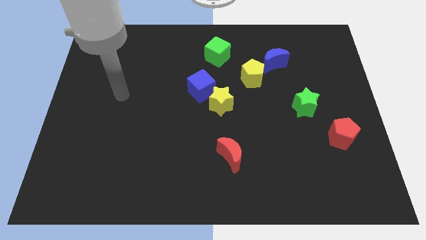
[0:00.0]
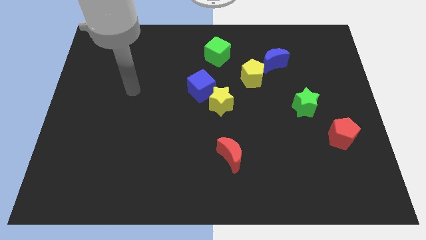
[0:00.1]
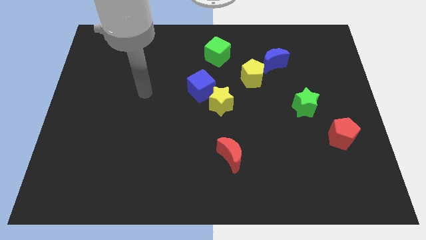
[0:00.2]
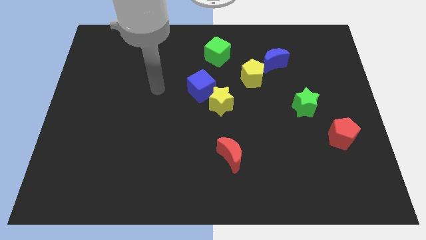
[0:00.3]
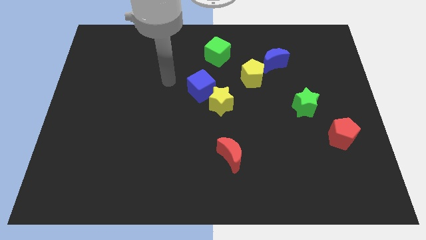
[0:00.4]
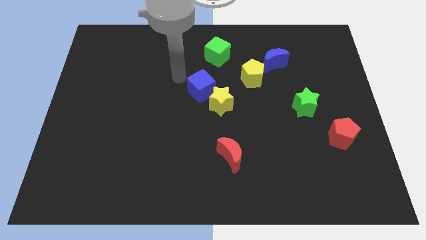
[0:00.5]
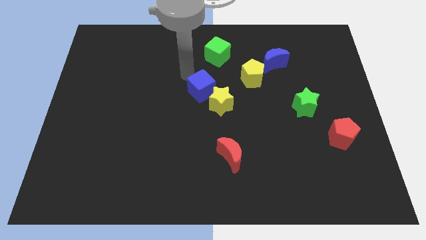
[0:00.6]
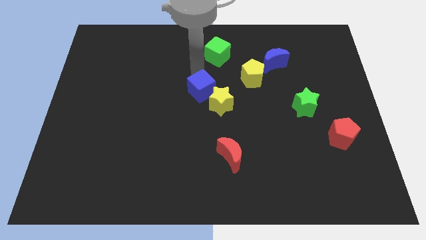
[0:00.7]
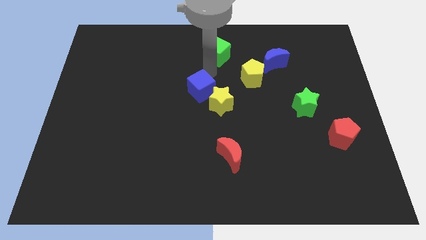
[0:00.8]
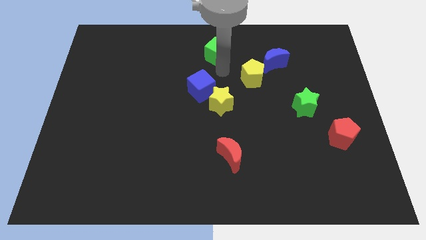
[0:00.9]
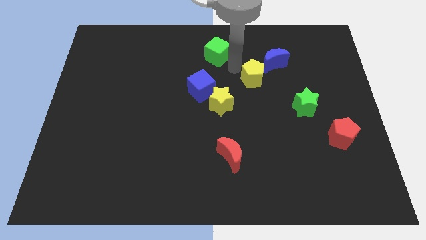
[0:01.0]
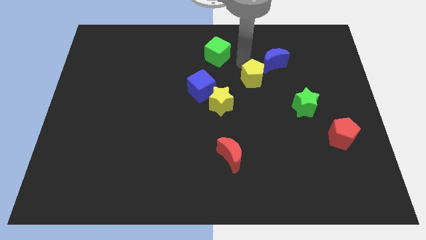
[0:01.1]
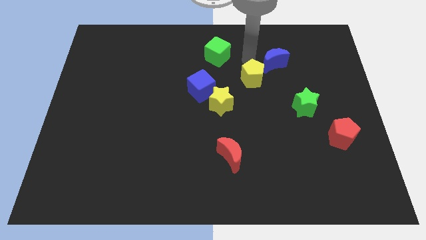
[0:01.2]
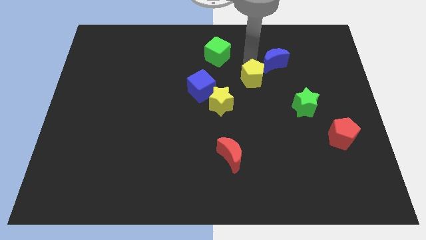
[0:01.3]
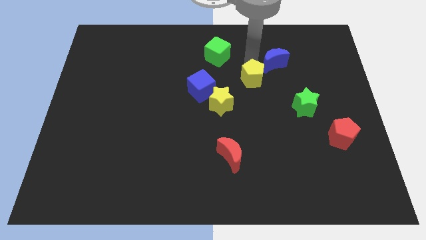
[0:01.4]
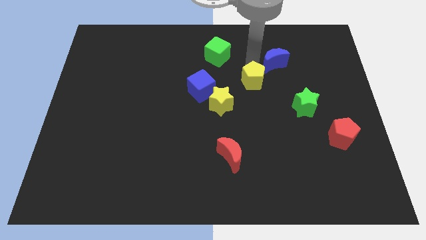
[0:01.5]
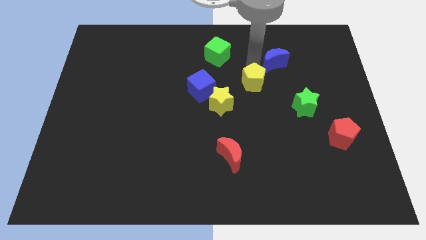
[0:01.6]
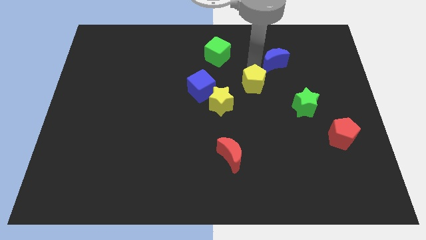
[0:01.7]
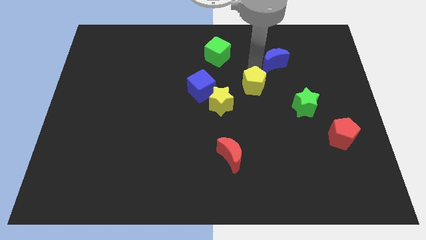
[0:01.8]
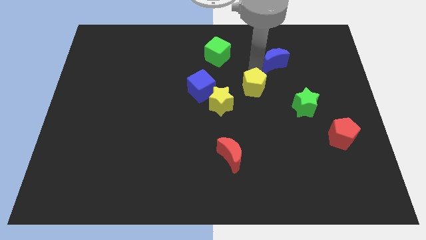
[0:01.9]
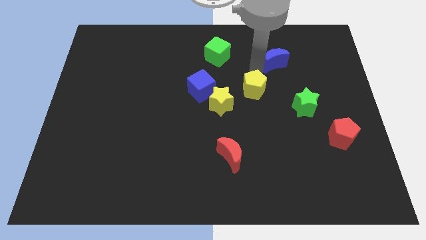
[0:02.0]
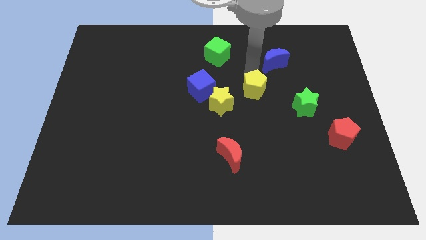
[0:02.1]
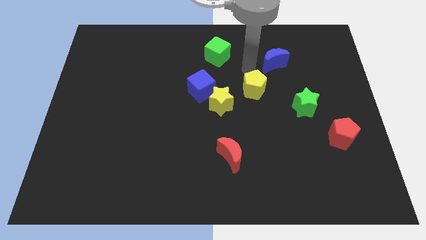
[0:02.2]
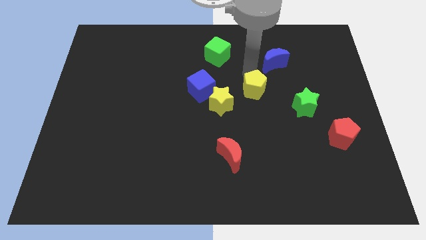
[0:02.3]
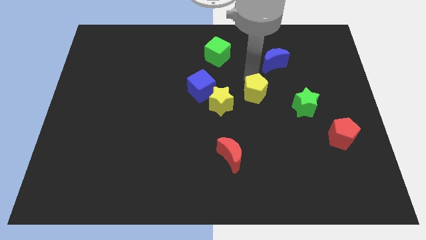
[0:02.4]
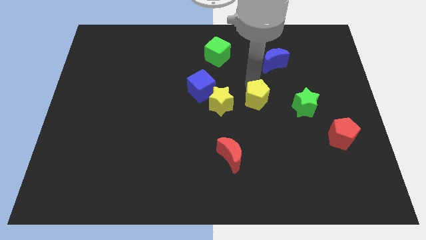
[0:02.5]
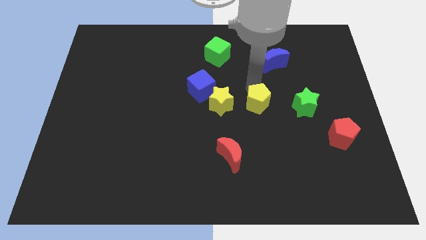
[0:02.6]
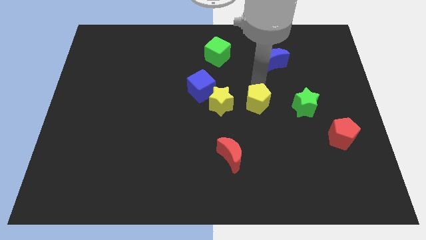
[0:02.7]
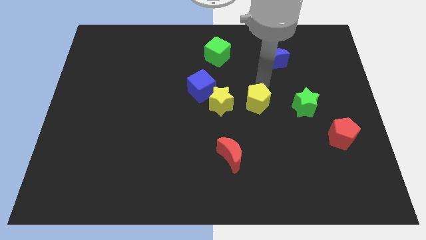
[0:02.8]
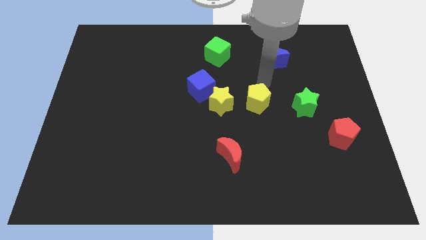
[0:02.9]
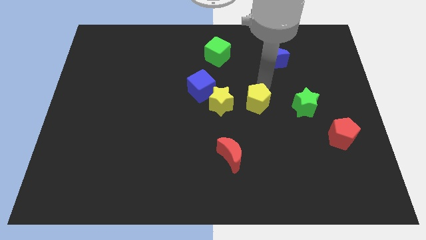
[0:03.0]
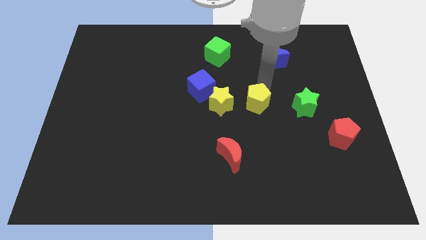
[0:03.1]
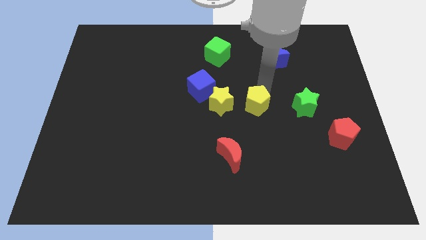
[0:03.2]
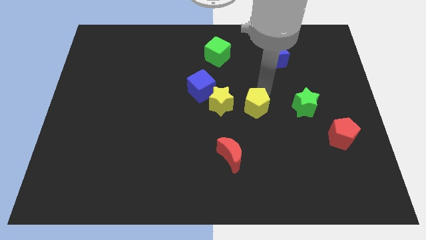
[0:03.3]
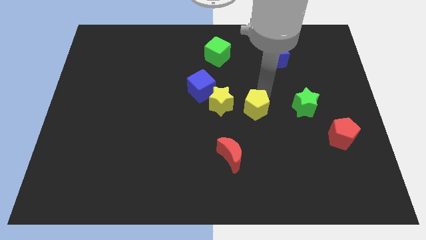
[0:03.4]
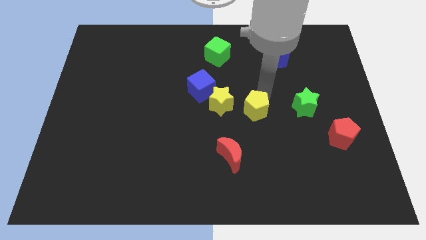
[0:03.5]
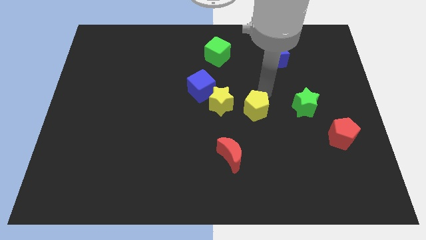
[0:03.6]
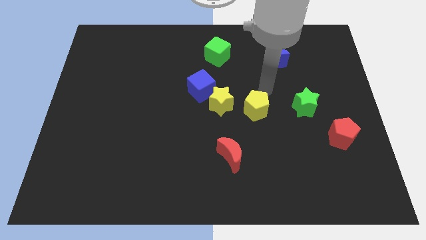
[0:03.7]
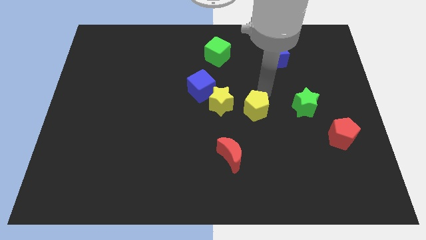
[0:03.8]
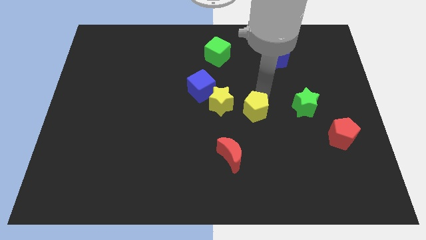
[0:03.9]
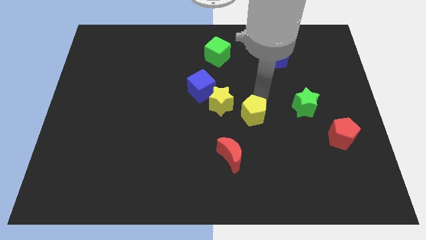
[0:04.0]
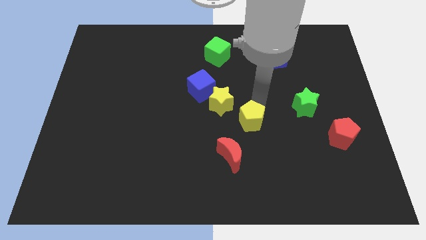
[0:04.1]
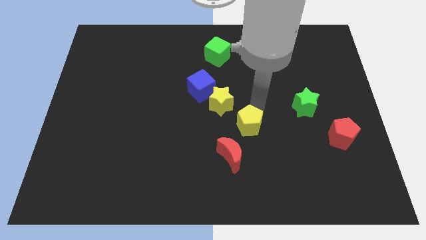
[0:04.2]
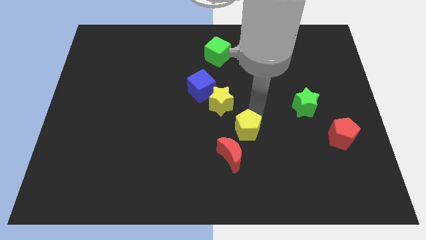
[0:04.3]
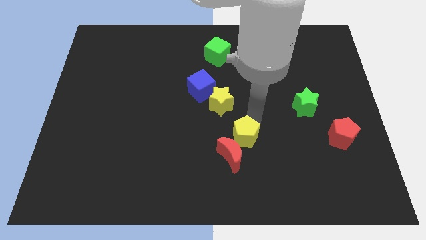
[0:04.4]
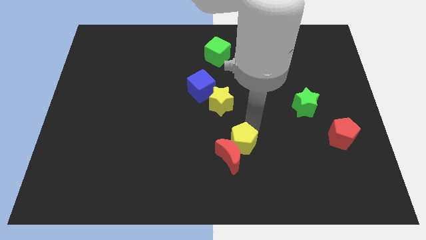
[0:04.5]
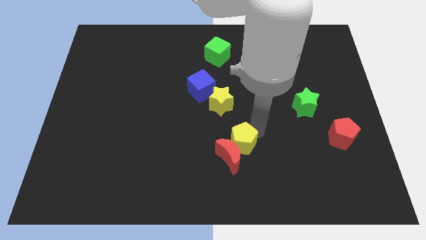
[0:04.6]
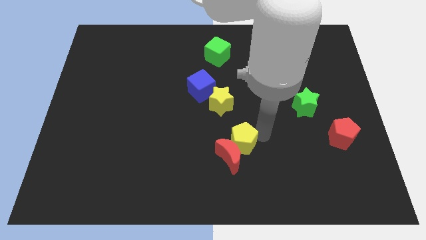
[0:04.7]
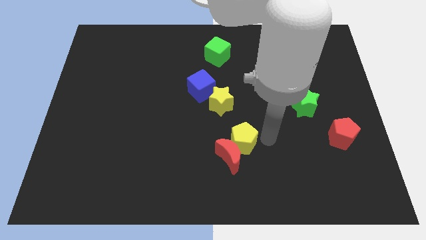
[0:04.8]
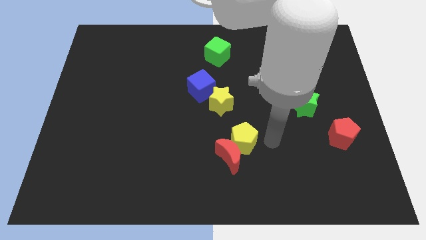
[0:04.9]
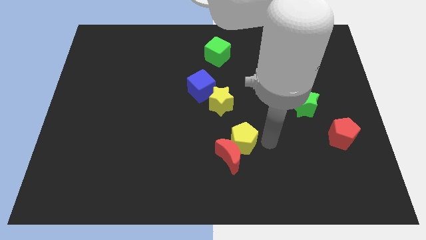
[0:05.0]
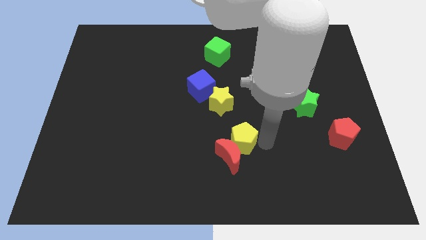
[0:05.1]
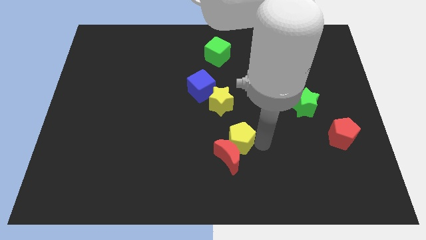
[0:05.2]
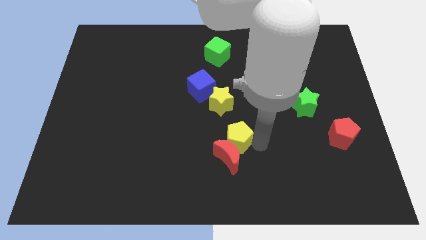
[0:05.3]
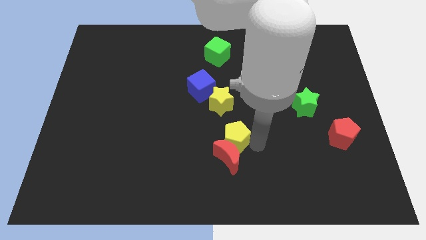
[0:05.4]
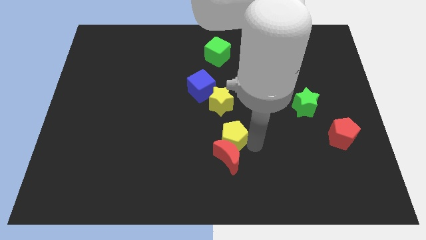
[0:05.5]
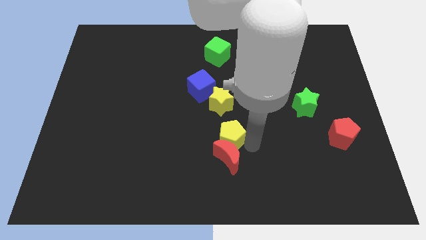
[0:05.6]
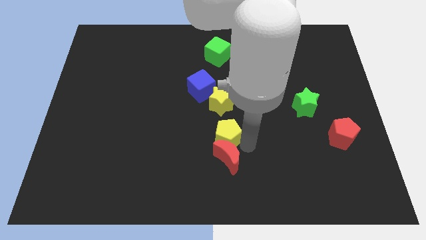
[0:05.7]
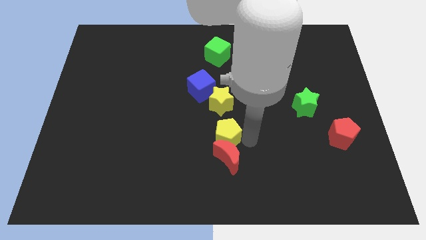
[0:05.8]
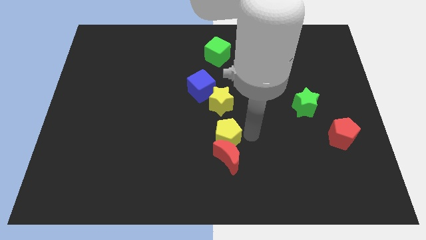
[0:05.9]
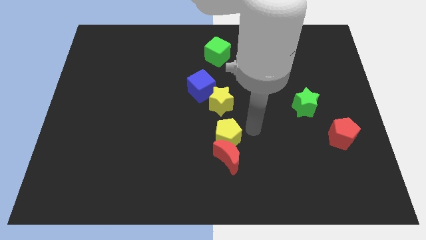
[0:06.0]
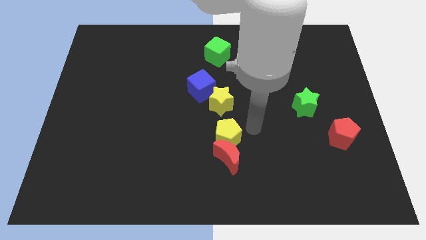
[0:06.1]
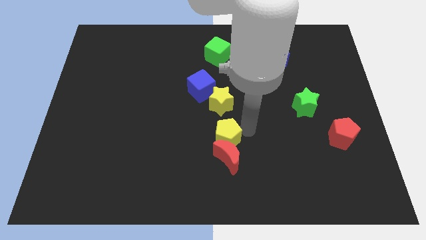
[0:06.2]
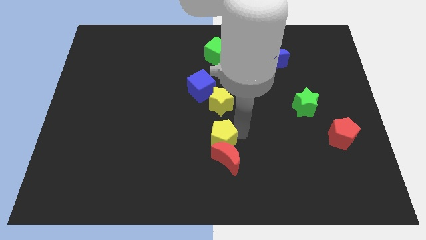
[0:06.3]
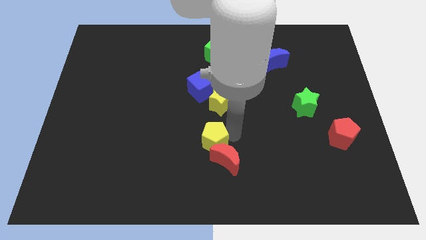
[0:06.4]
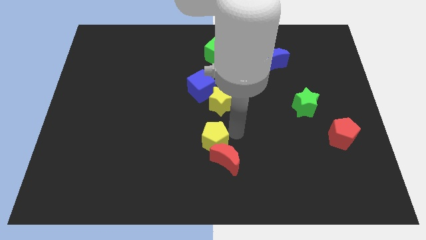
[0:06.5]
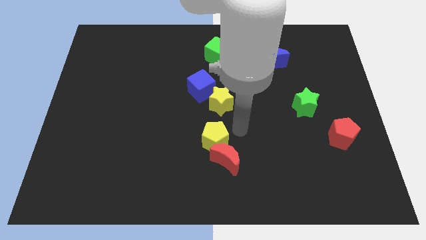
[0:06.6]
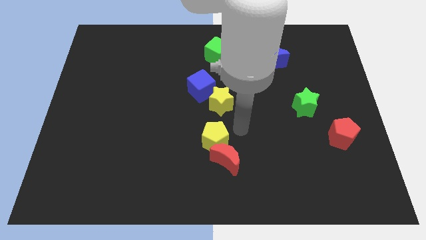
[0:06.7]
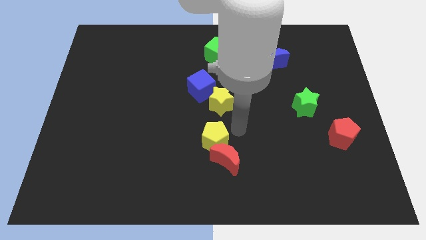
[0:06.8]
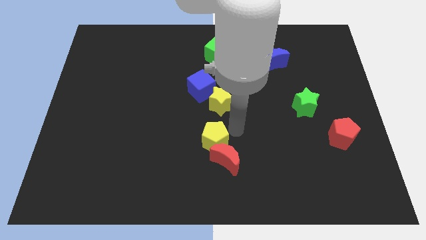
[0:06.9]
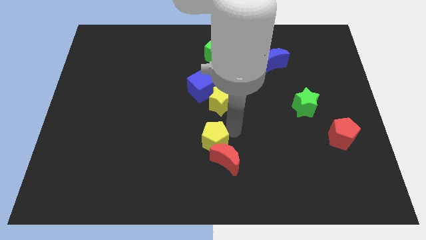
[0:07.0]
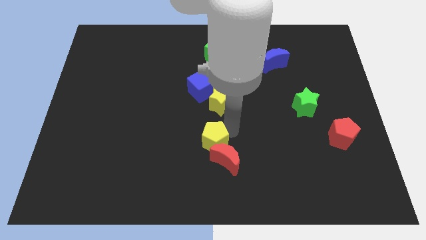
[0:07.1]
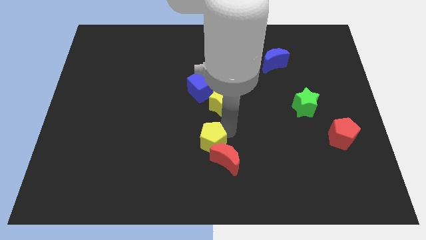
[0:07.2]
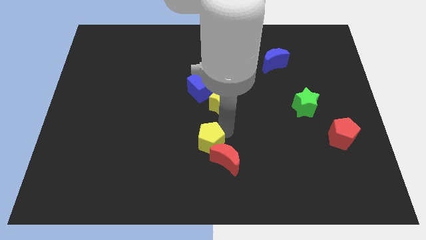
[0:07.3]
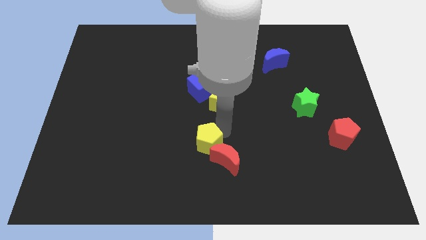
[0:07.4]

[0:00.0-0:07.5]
slide the yellow pentagon diagonally down and to the left

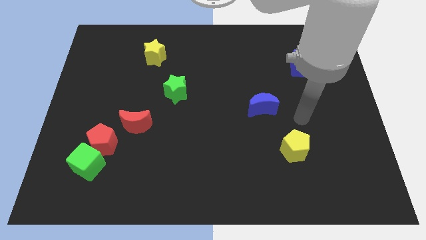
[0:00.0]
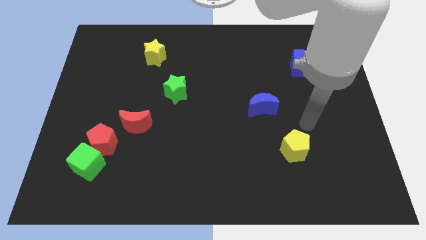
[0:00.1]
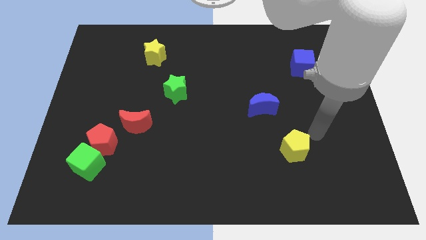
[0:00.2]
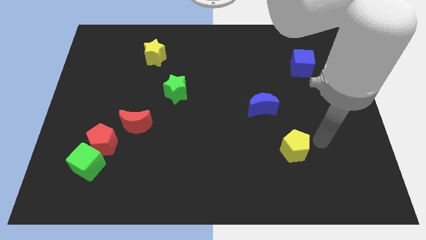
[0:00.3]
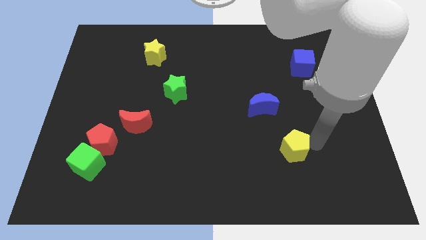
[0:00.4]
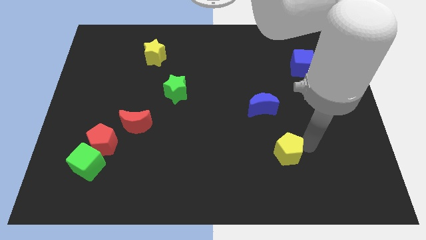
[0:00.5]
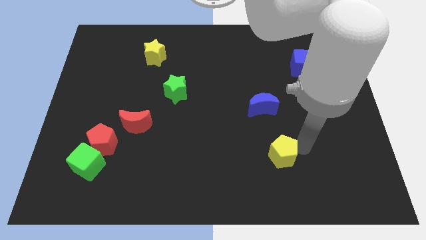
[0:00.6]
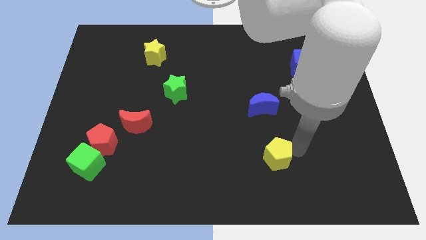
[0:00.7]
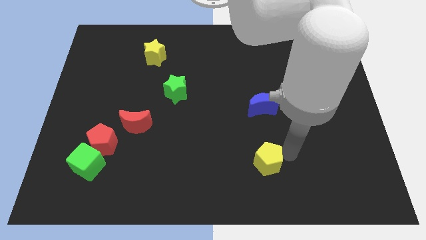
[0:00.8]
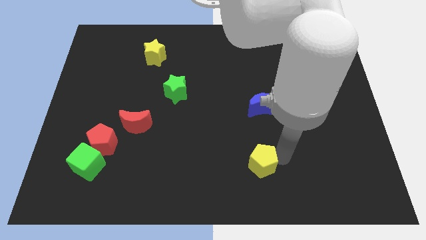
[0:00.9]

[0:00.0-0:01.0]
push the yellow pentagon to the left slightly
